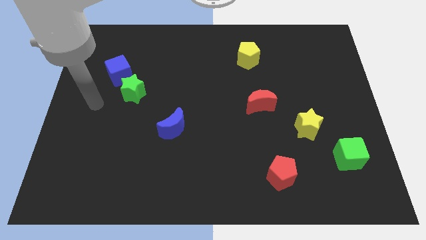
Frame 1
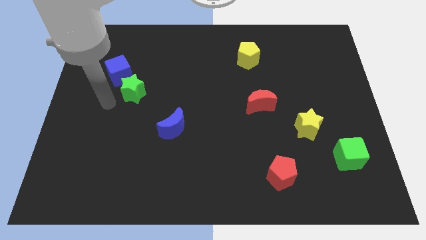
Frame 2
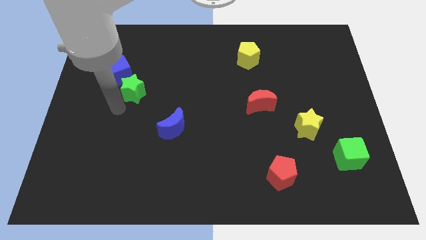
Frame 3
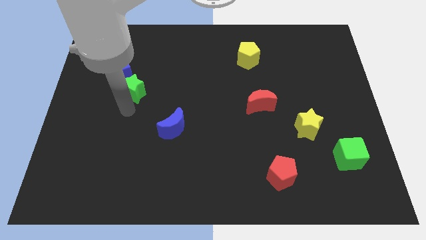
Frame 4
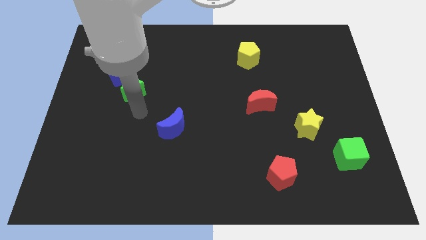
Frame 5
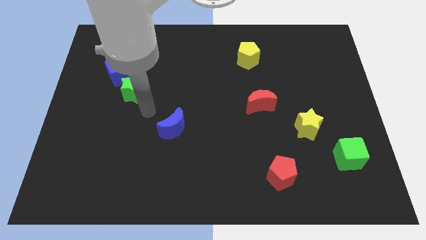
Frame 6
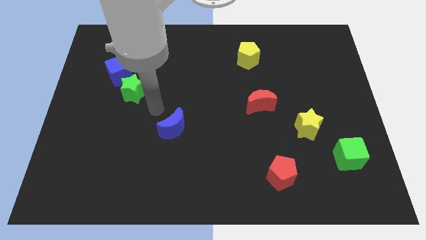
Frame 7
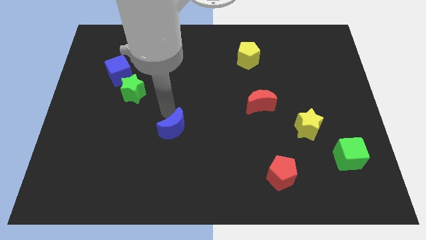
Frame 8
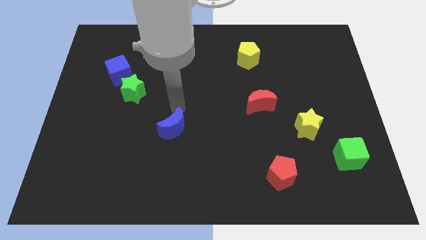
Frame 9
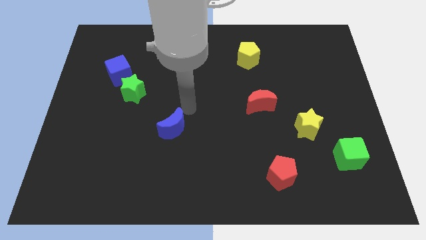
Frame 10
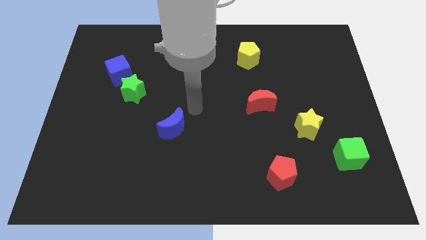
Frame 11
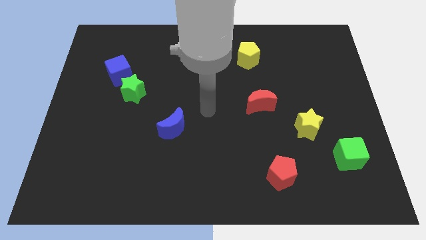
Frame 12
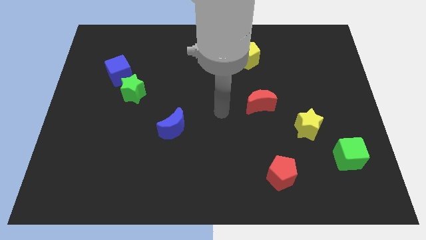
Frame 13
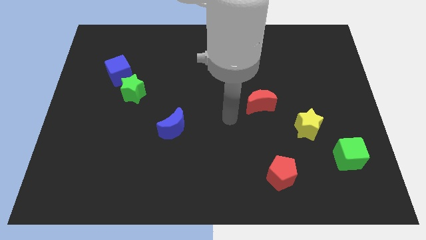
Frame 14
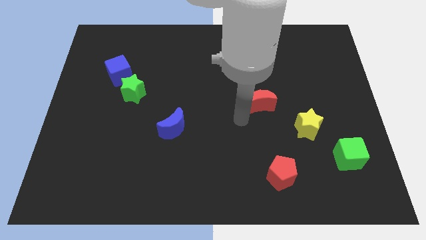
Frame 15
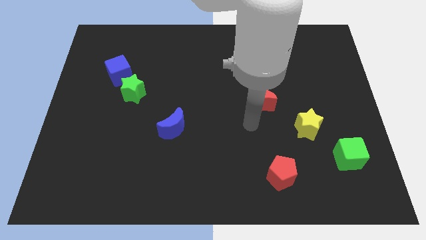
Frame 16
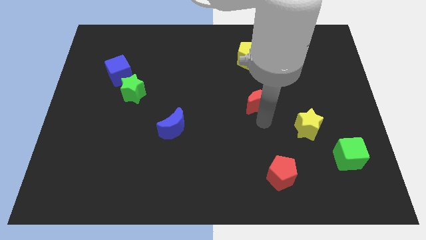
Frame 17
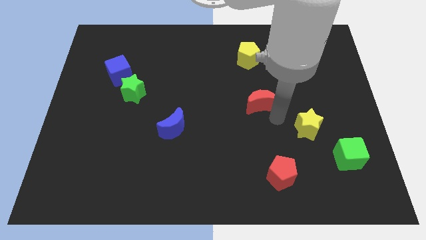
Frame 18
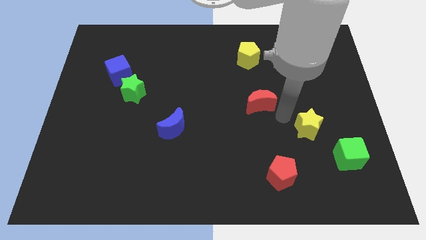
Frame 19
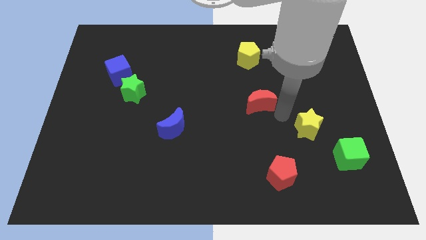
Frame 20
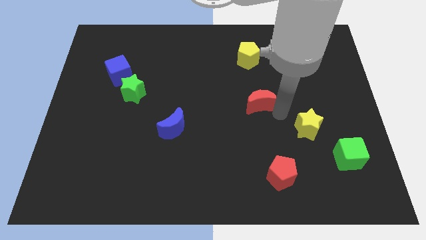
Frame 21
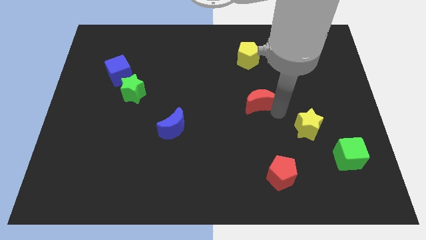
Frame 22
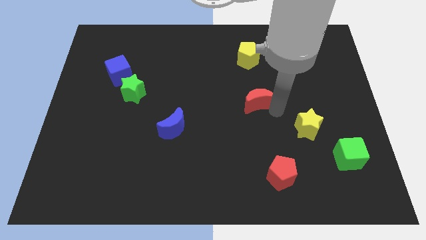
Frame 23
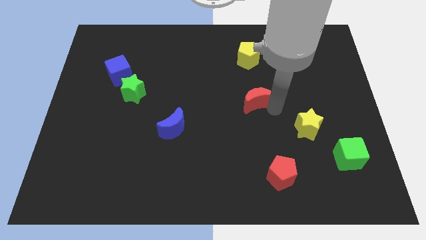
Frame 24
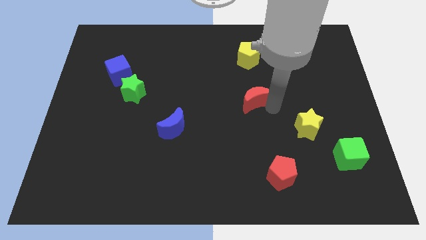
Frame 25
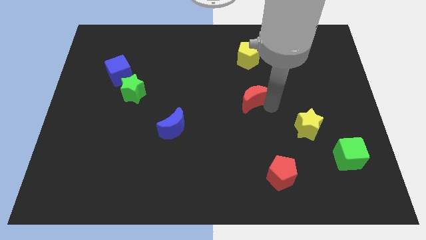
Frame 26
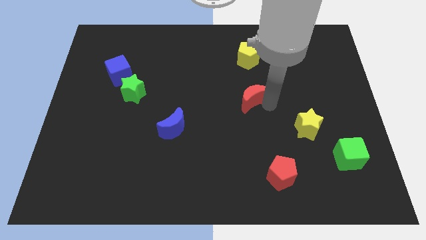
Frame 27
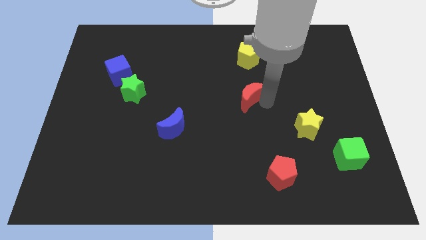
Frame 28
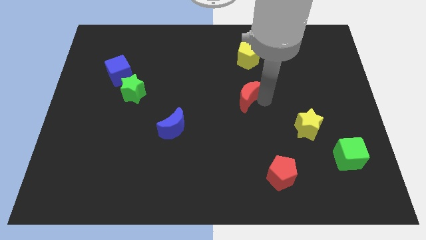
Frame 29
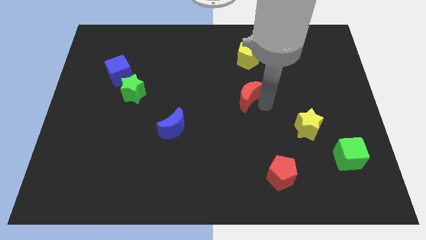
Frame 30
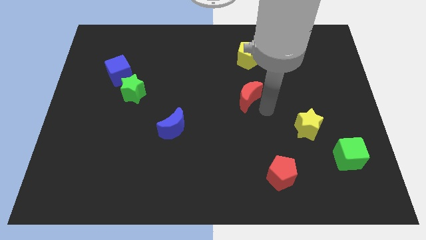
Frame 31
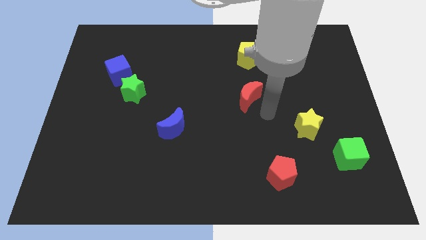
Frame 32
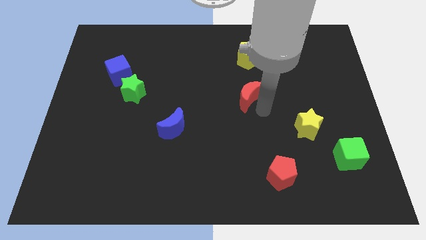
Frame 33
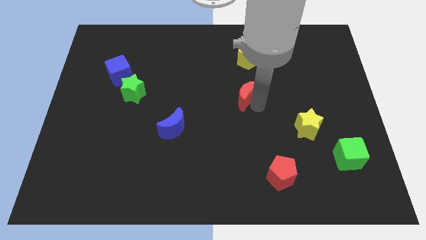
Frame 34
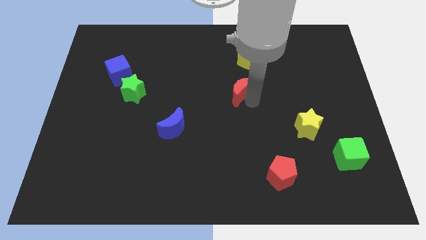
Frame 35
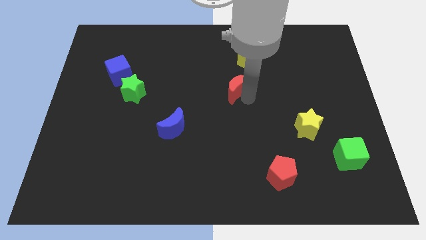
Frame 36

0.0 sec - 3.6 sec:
slide the red moon upwards and left diagonally a bit

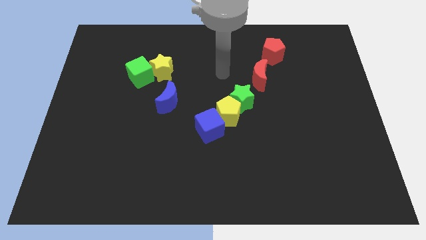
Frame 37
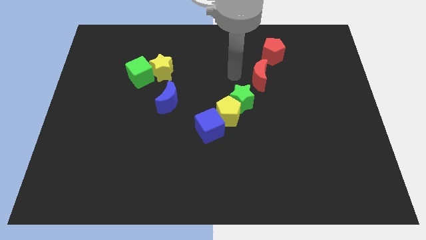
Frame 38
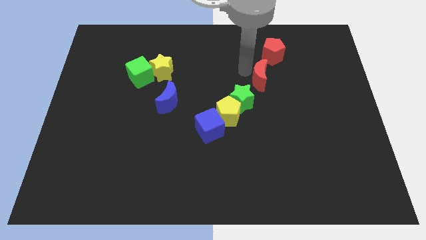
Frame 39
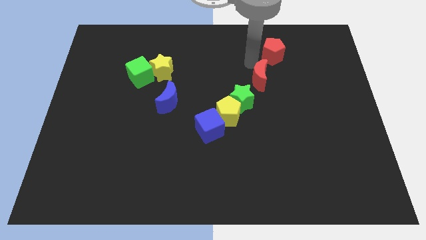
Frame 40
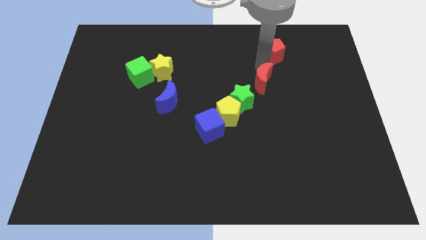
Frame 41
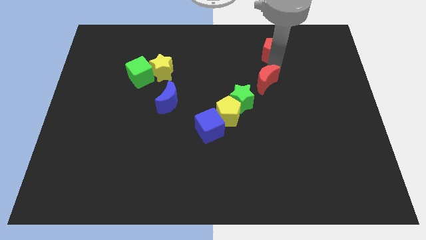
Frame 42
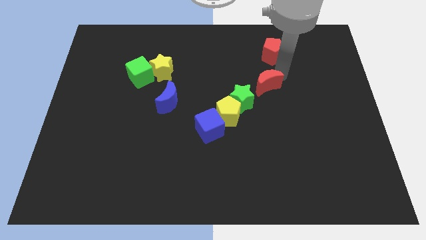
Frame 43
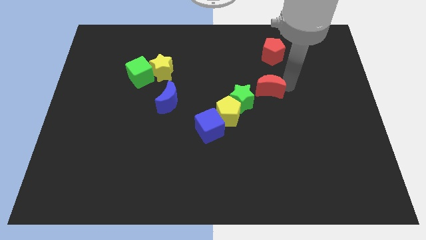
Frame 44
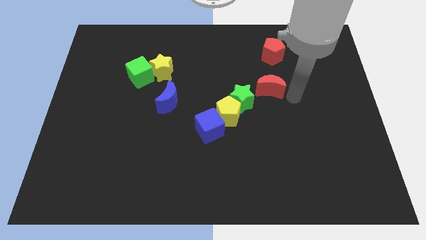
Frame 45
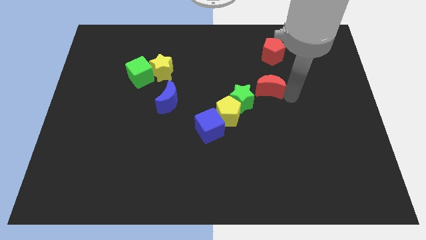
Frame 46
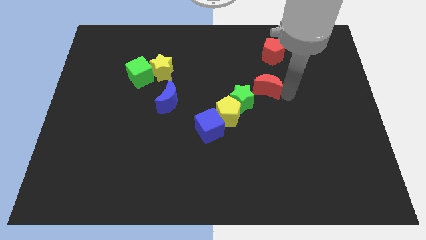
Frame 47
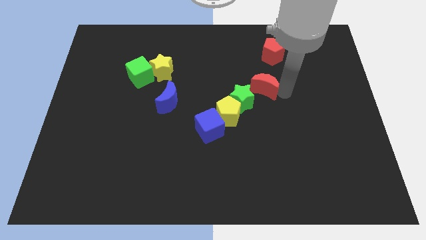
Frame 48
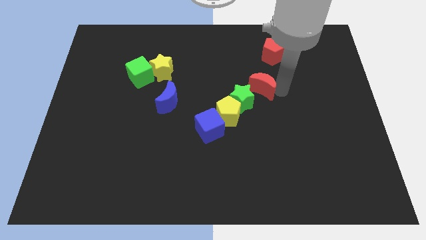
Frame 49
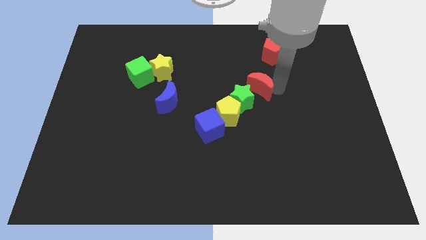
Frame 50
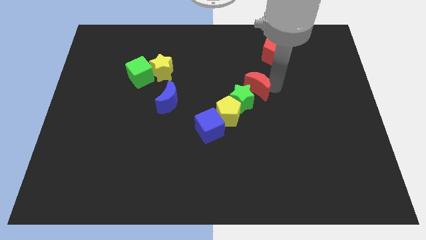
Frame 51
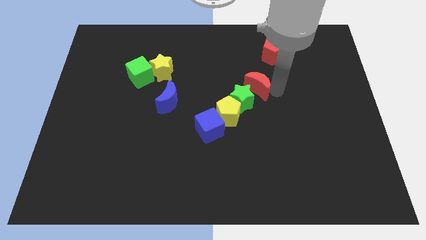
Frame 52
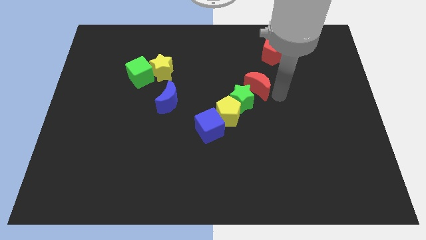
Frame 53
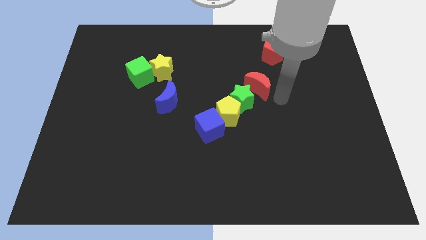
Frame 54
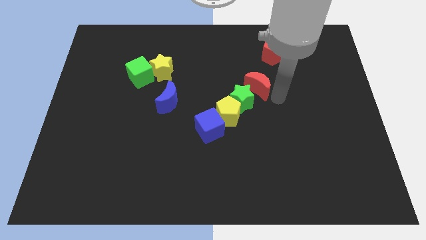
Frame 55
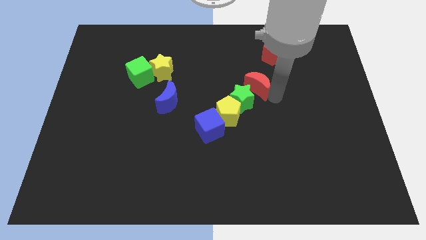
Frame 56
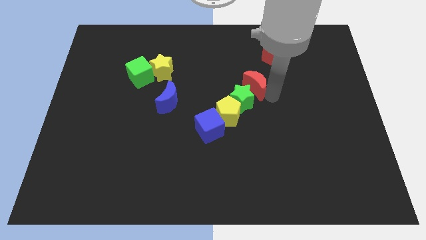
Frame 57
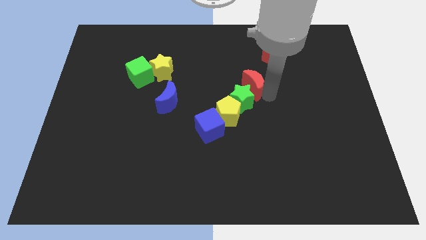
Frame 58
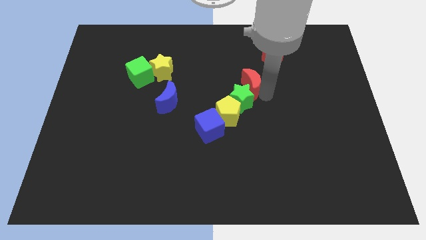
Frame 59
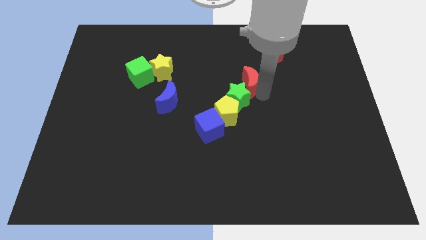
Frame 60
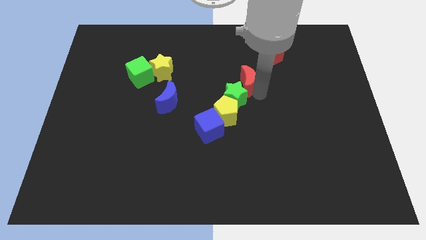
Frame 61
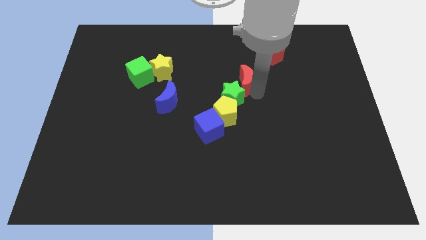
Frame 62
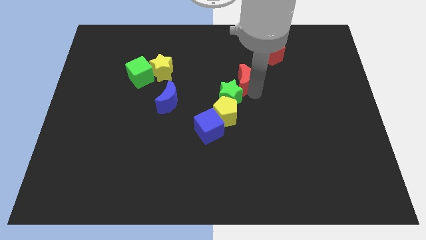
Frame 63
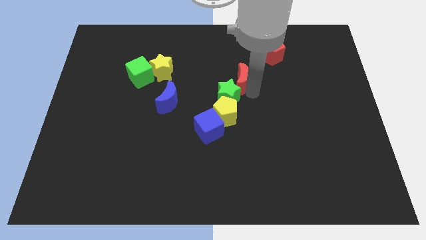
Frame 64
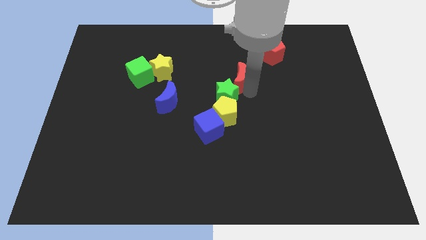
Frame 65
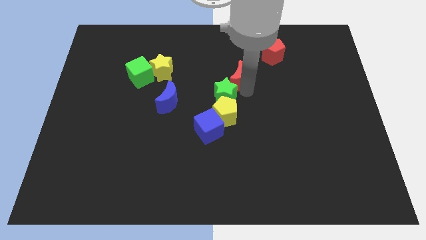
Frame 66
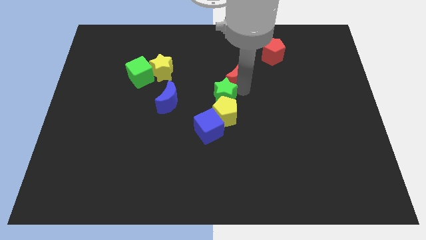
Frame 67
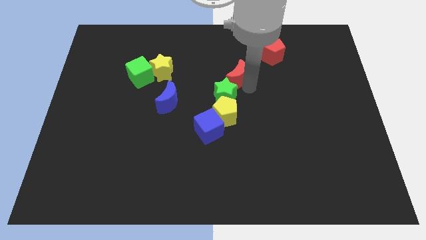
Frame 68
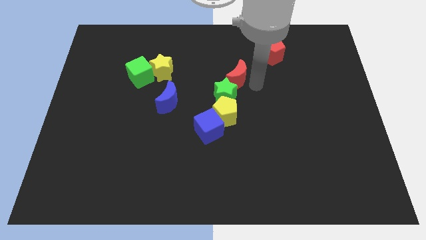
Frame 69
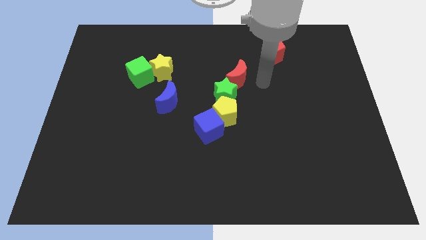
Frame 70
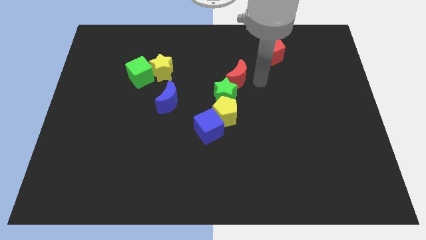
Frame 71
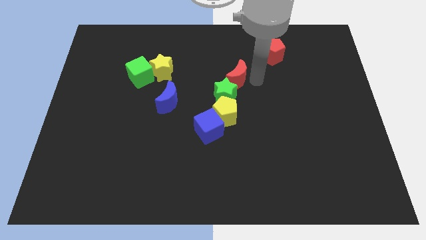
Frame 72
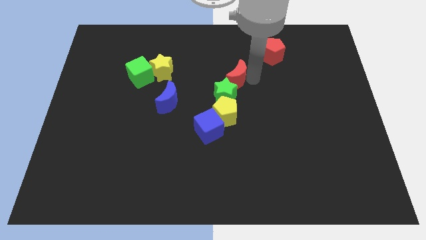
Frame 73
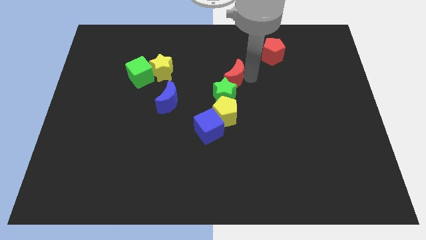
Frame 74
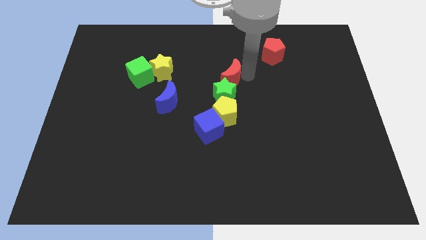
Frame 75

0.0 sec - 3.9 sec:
push the red moon left slightly

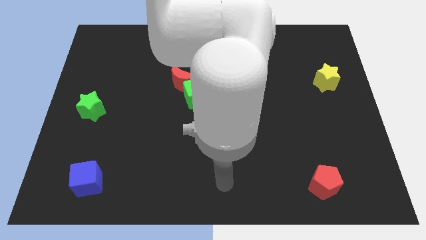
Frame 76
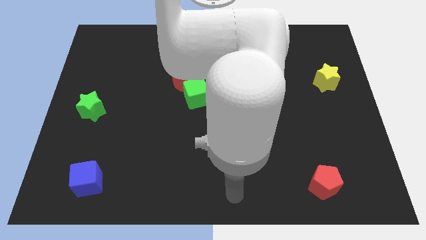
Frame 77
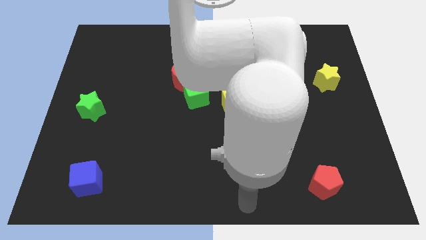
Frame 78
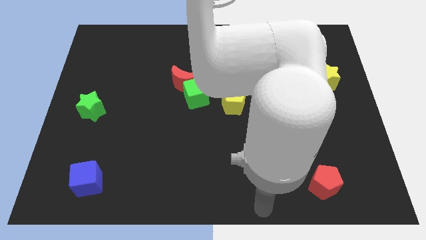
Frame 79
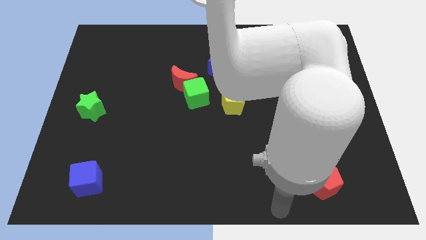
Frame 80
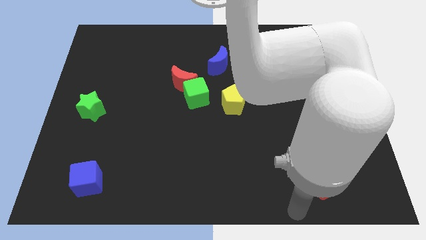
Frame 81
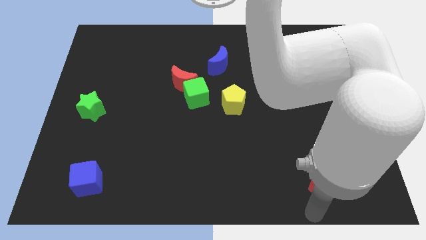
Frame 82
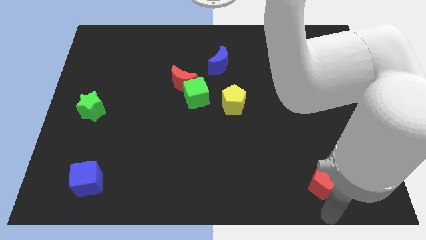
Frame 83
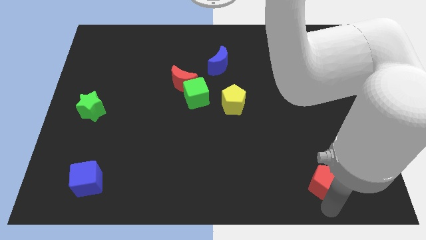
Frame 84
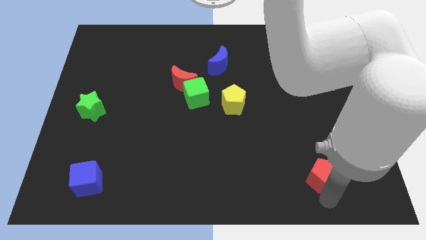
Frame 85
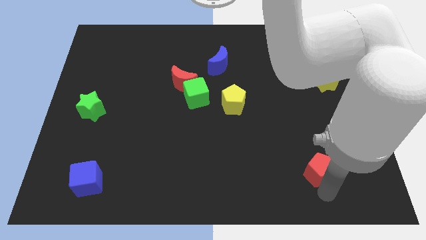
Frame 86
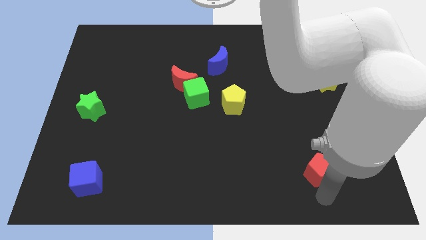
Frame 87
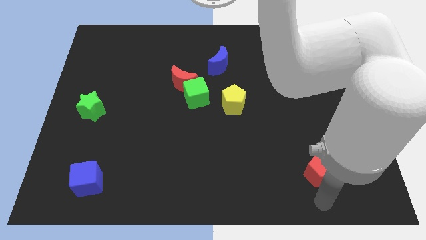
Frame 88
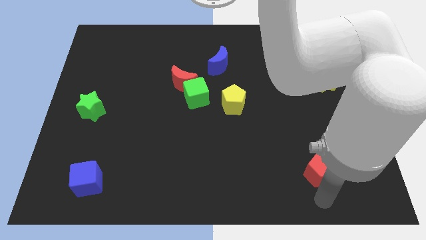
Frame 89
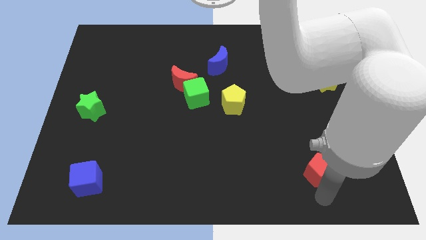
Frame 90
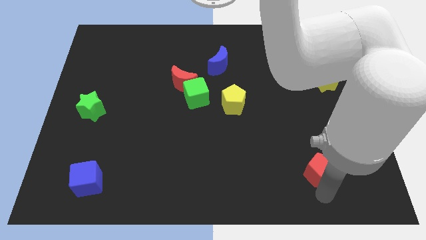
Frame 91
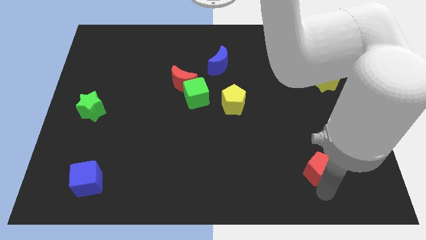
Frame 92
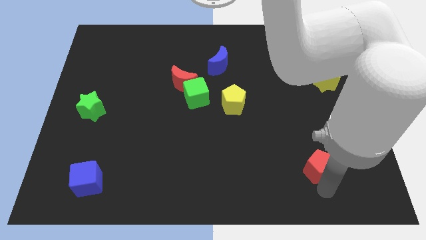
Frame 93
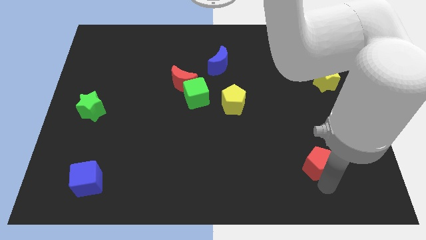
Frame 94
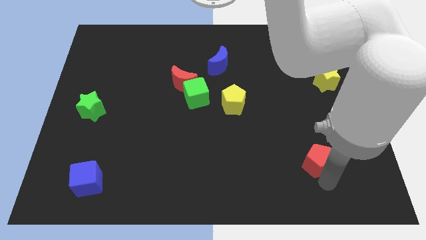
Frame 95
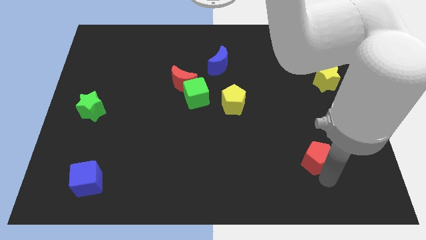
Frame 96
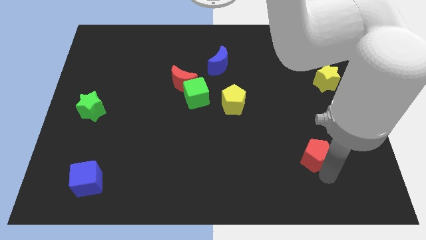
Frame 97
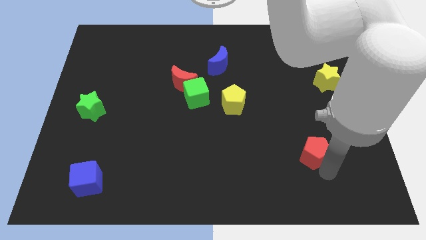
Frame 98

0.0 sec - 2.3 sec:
slide the red pentagon somewhat up
